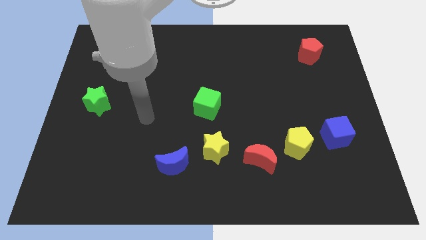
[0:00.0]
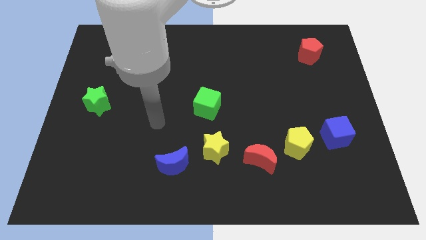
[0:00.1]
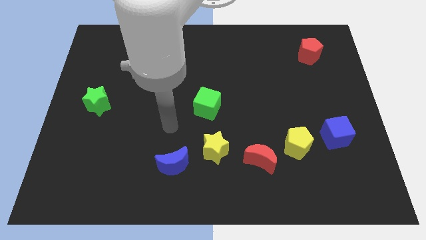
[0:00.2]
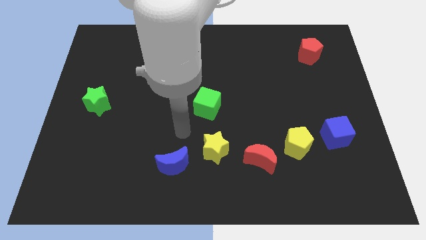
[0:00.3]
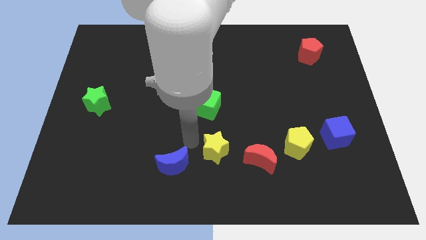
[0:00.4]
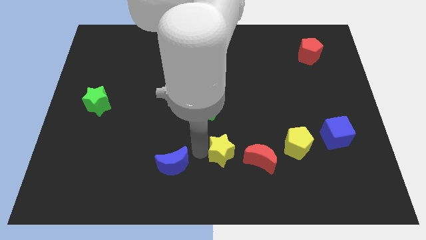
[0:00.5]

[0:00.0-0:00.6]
separate the blue moon from the yellow star

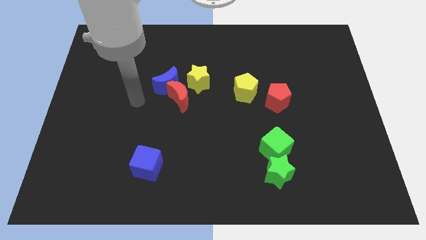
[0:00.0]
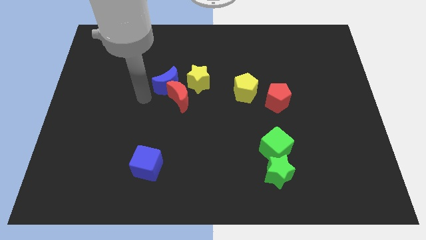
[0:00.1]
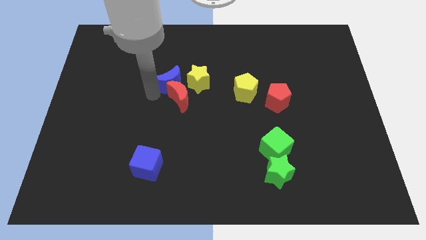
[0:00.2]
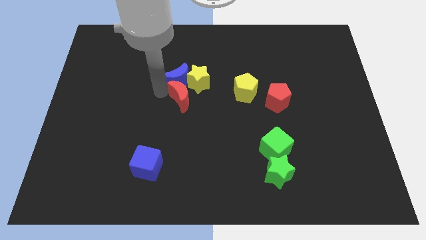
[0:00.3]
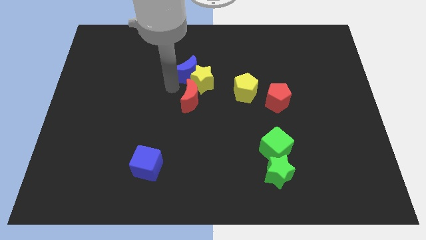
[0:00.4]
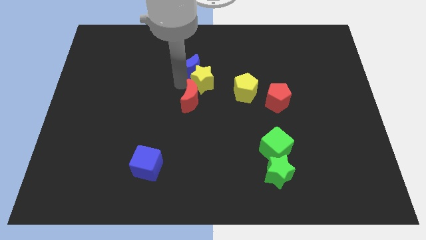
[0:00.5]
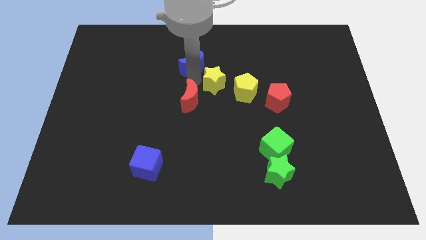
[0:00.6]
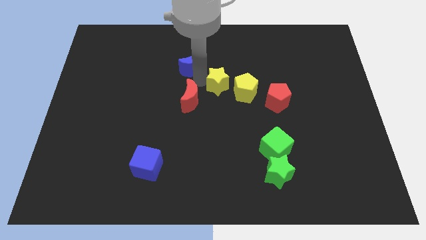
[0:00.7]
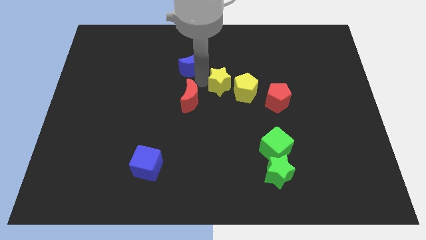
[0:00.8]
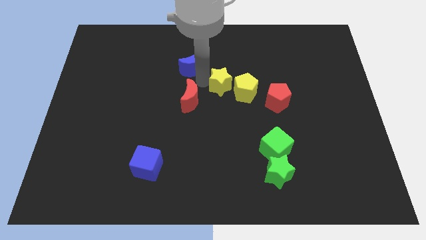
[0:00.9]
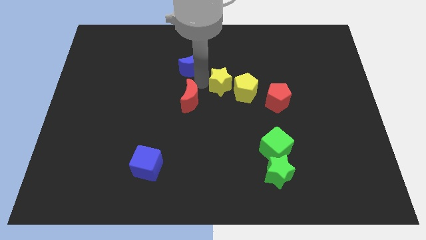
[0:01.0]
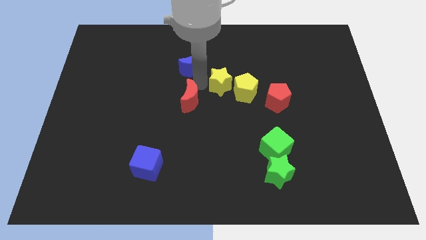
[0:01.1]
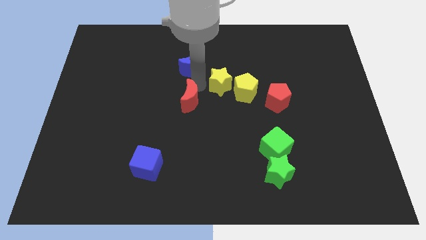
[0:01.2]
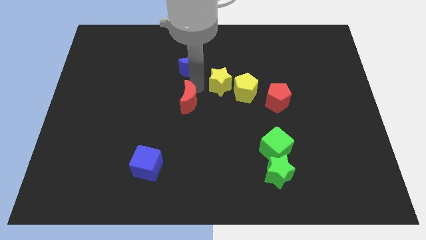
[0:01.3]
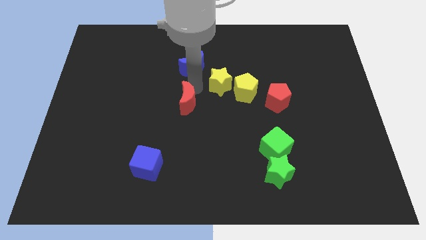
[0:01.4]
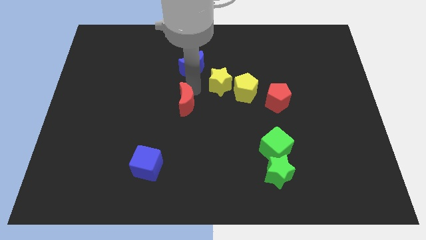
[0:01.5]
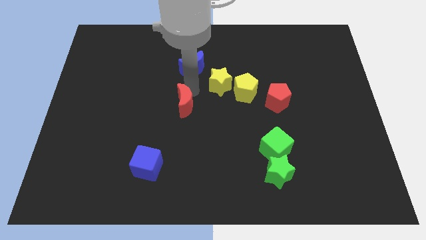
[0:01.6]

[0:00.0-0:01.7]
move the red moon away from the blue moon and yellow star

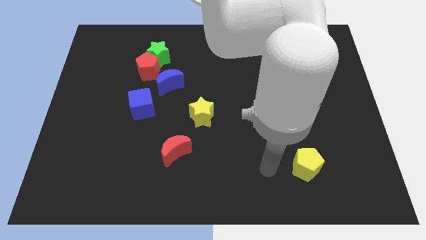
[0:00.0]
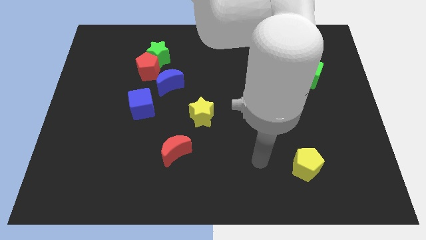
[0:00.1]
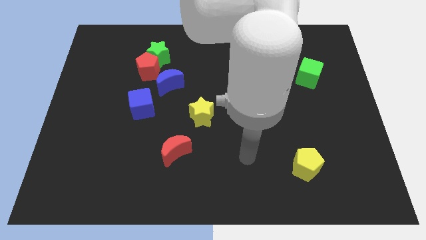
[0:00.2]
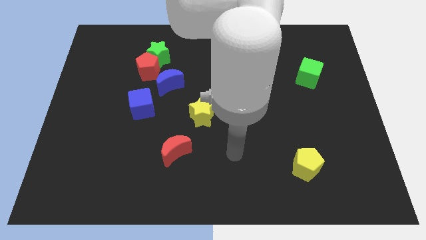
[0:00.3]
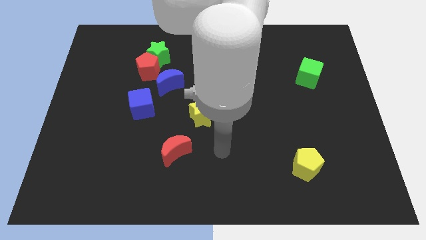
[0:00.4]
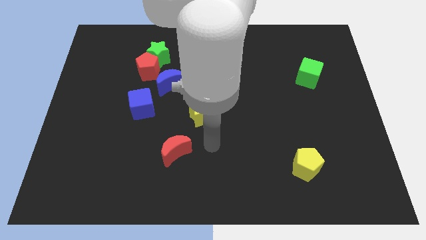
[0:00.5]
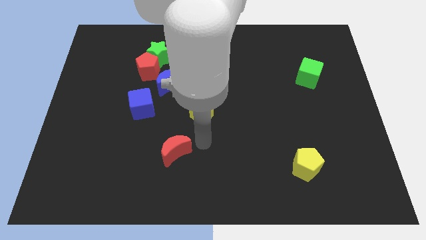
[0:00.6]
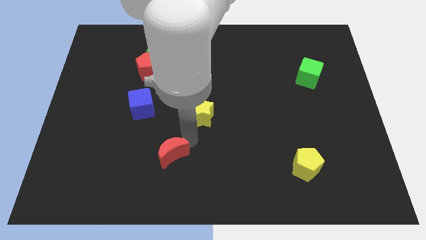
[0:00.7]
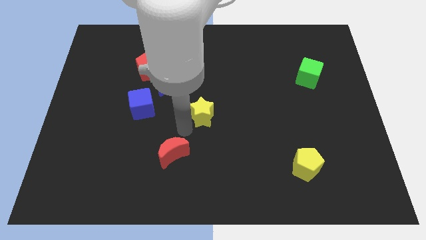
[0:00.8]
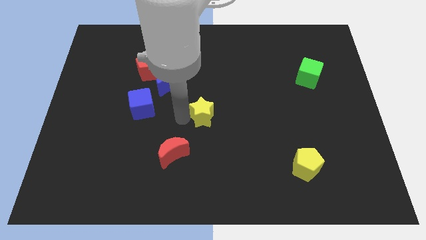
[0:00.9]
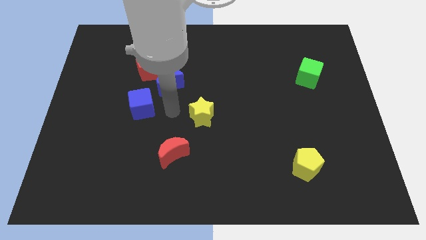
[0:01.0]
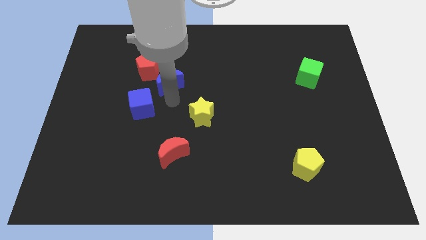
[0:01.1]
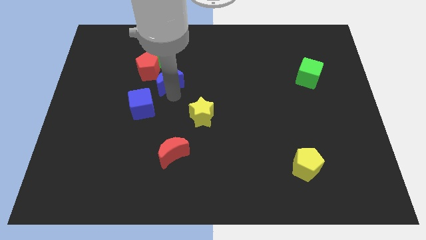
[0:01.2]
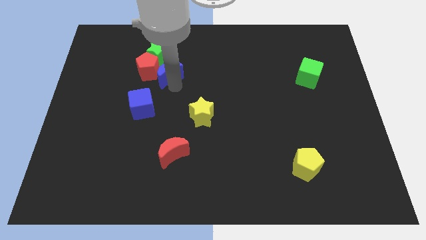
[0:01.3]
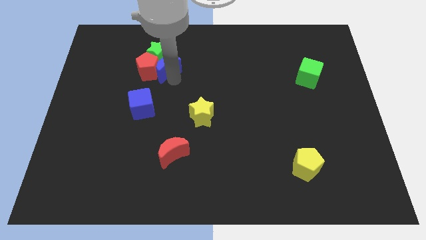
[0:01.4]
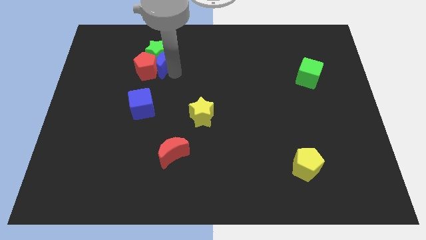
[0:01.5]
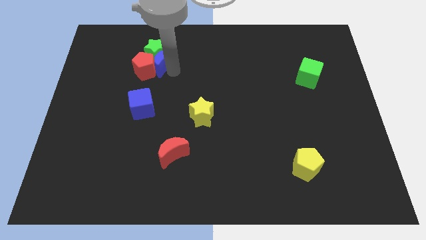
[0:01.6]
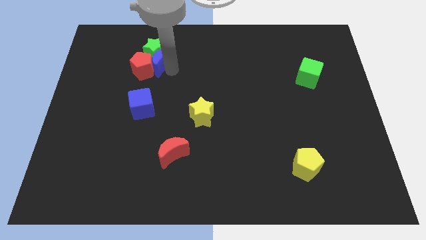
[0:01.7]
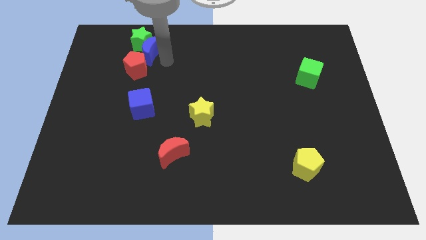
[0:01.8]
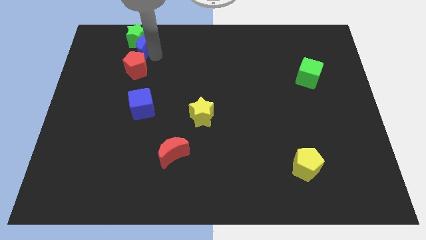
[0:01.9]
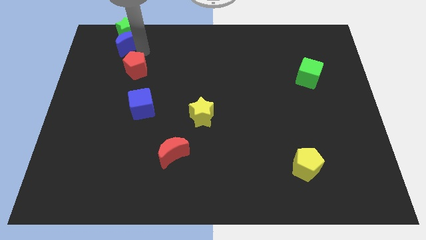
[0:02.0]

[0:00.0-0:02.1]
move the red pentagon away from the green star and blue moon

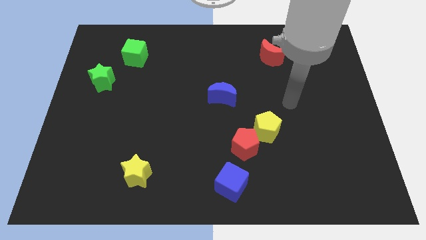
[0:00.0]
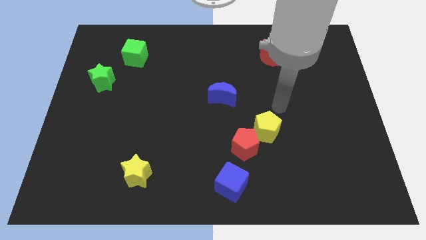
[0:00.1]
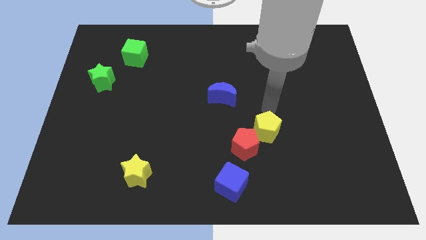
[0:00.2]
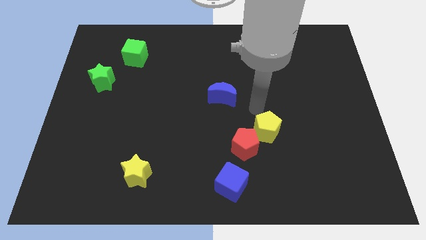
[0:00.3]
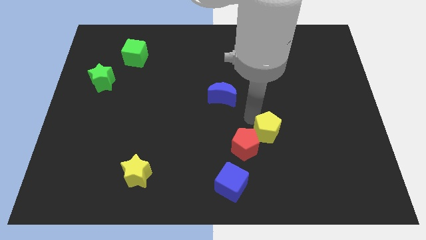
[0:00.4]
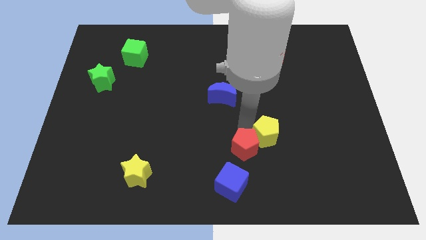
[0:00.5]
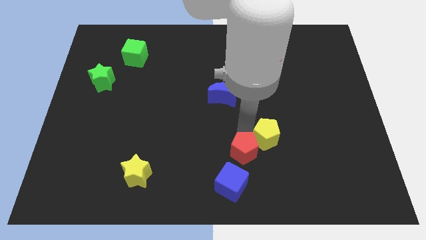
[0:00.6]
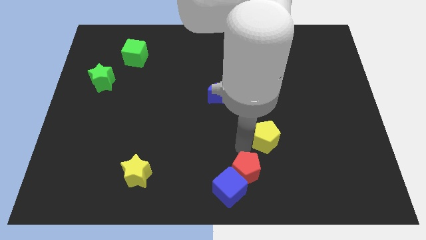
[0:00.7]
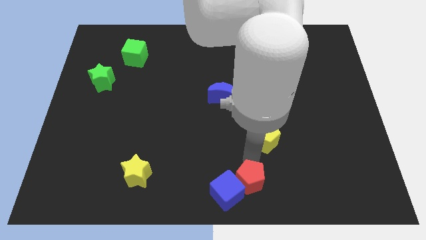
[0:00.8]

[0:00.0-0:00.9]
separate the yellow pentagon from the red pentagon

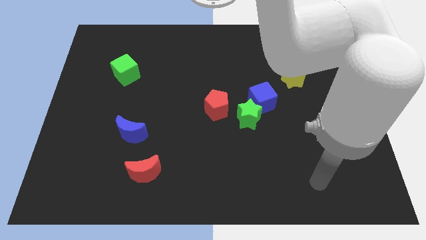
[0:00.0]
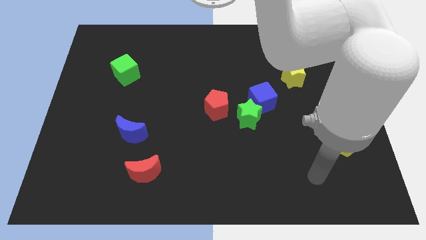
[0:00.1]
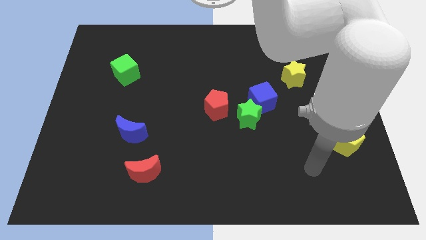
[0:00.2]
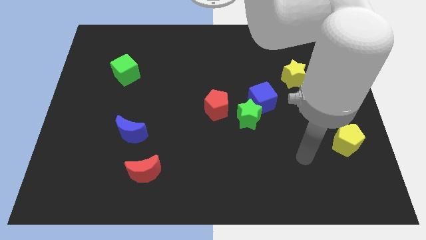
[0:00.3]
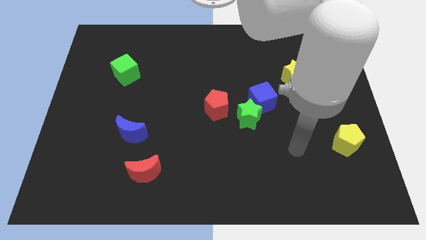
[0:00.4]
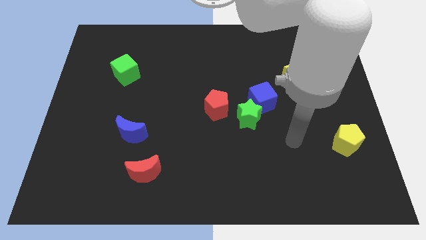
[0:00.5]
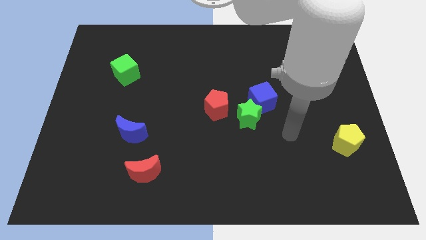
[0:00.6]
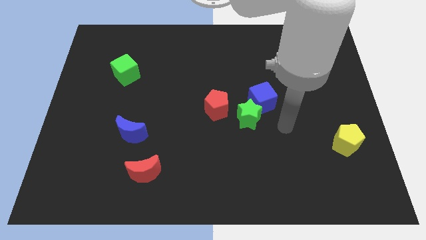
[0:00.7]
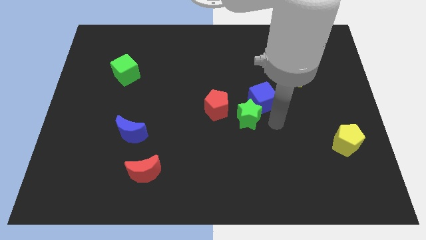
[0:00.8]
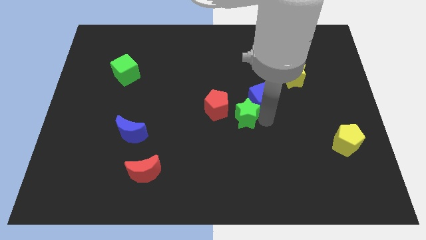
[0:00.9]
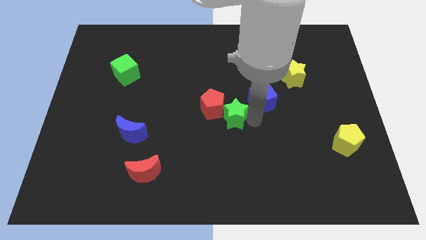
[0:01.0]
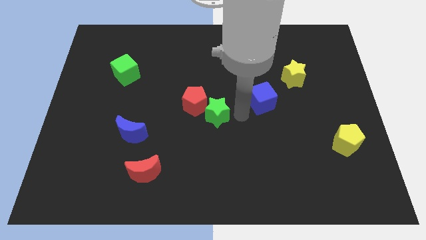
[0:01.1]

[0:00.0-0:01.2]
pull the blue cube apart from the green star

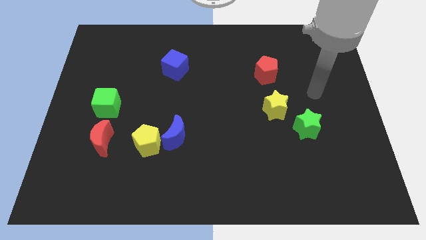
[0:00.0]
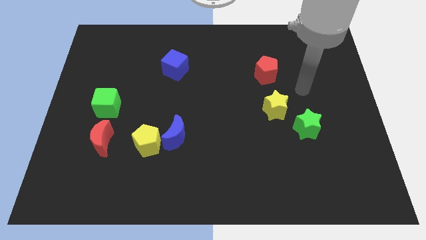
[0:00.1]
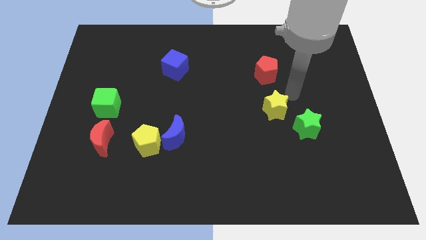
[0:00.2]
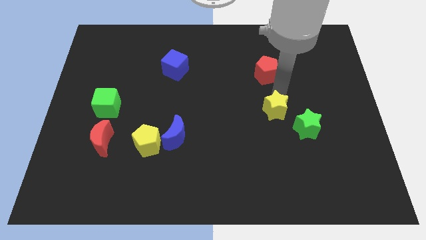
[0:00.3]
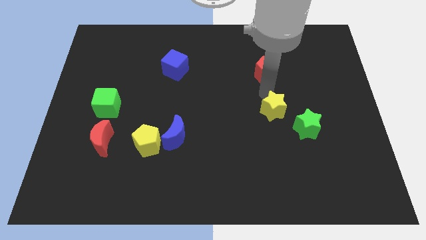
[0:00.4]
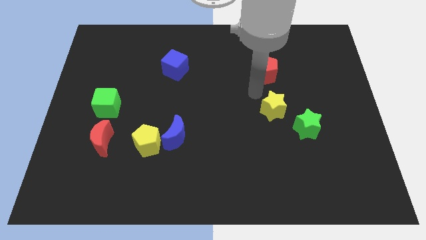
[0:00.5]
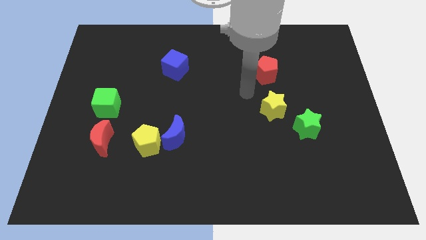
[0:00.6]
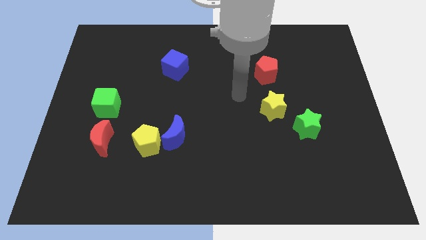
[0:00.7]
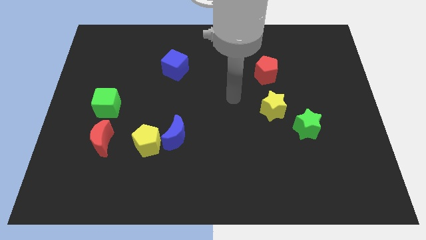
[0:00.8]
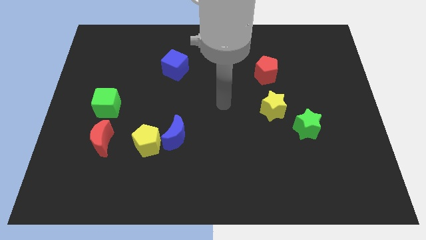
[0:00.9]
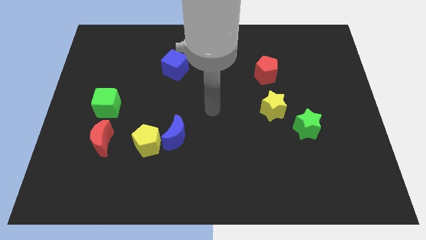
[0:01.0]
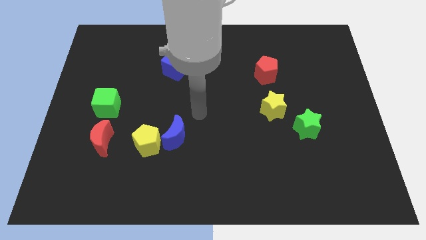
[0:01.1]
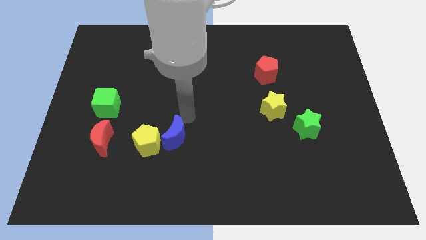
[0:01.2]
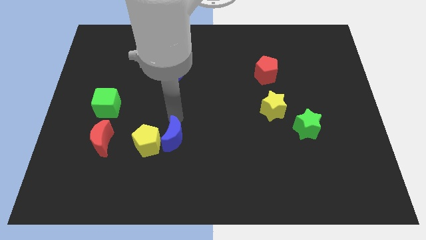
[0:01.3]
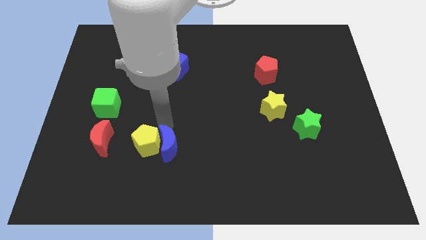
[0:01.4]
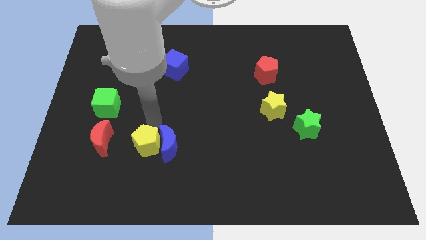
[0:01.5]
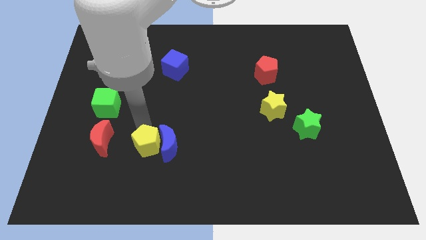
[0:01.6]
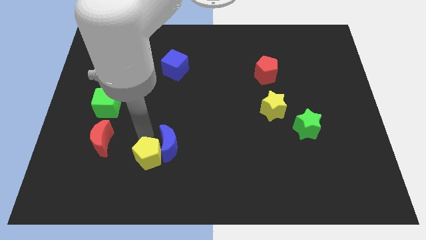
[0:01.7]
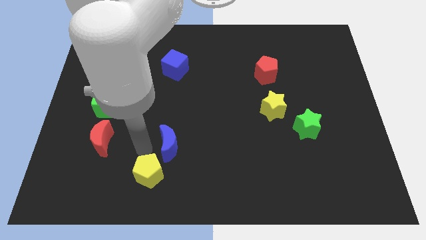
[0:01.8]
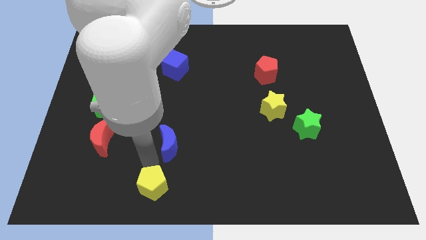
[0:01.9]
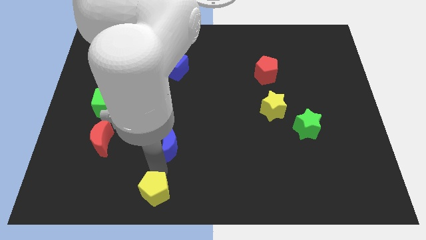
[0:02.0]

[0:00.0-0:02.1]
pull the blue moon apart from the yellow pentagon

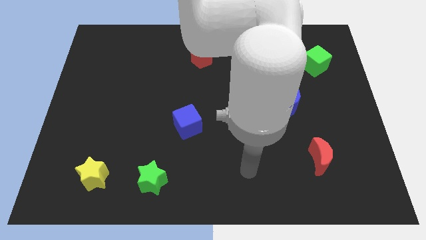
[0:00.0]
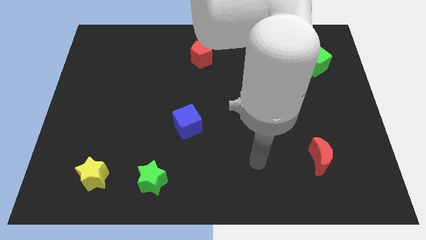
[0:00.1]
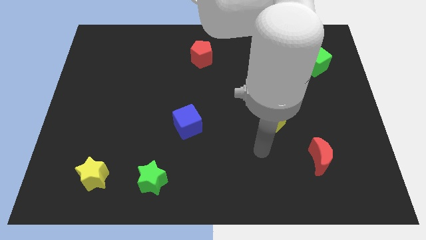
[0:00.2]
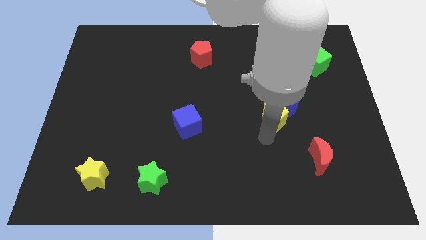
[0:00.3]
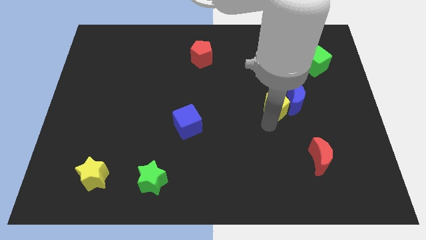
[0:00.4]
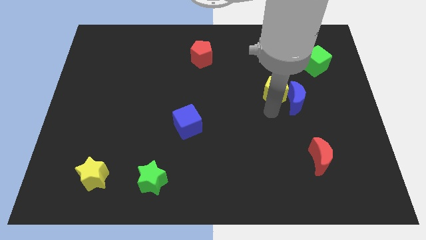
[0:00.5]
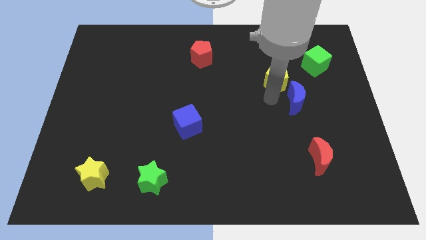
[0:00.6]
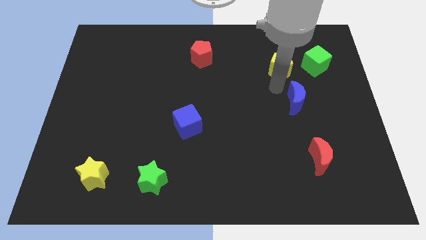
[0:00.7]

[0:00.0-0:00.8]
move the blue moon away from the yellow pentagon
